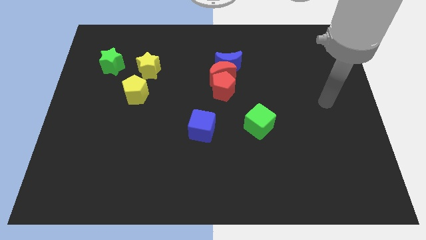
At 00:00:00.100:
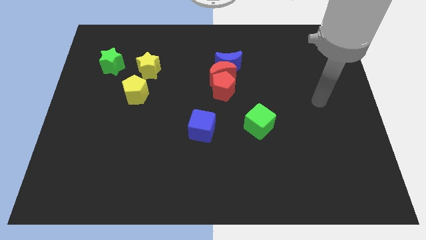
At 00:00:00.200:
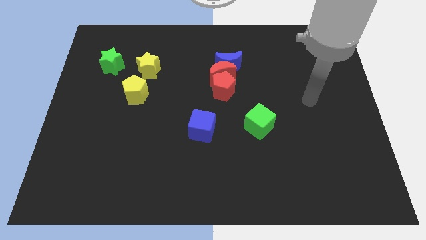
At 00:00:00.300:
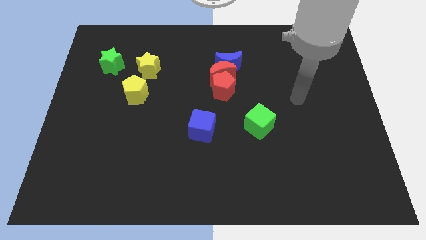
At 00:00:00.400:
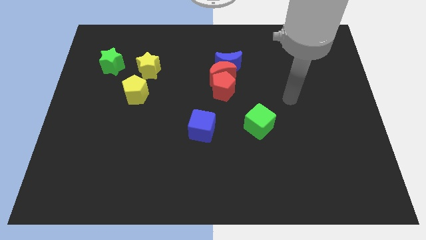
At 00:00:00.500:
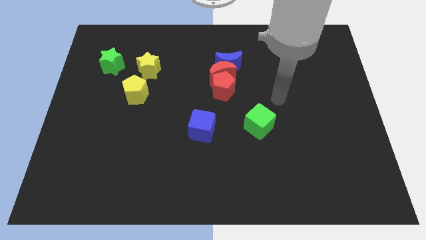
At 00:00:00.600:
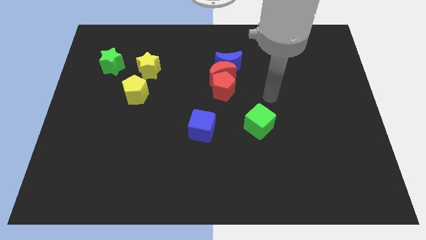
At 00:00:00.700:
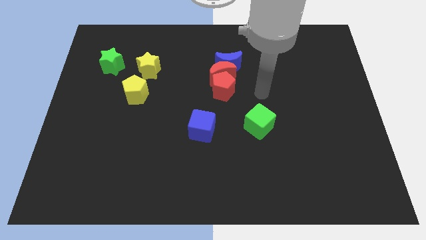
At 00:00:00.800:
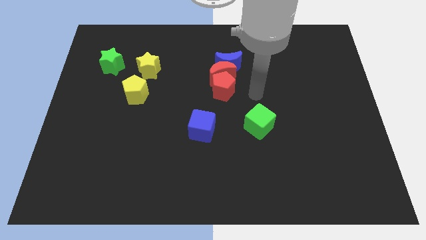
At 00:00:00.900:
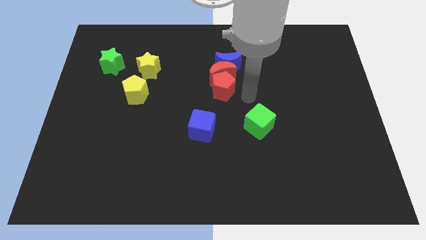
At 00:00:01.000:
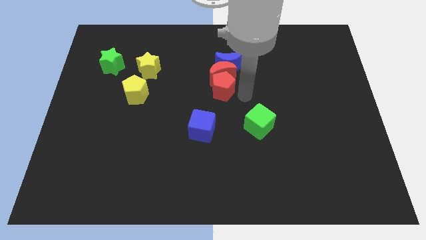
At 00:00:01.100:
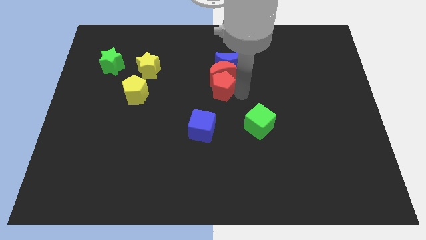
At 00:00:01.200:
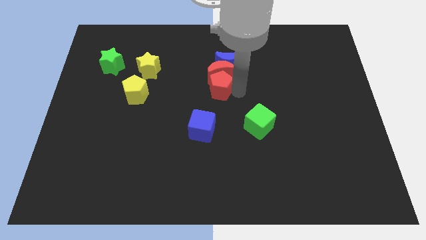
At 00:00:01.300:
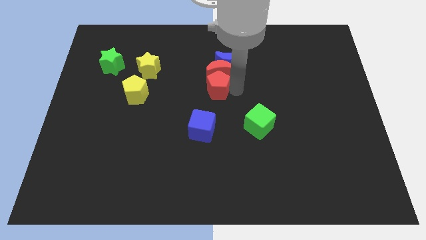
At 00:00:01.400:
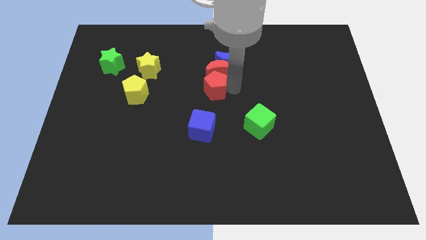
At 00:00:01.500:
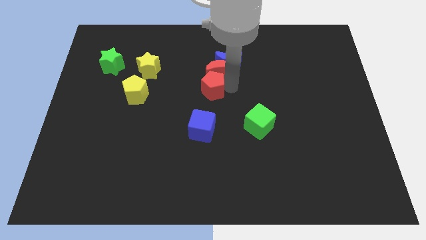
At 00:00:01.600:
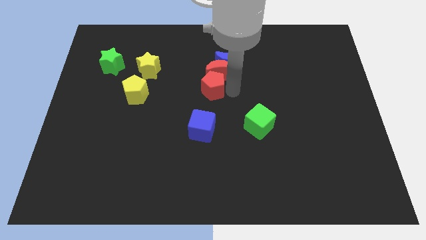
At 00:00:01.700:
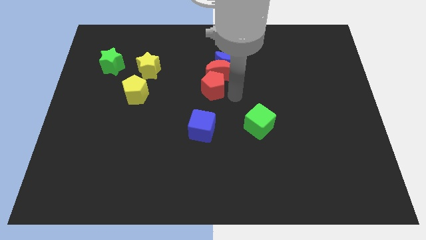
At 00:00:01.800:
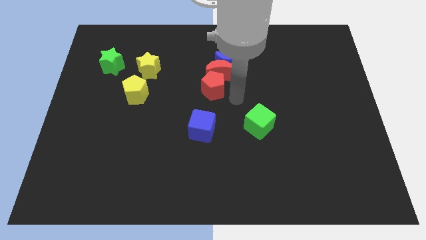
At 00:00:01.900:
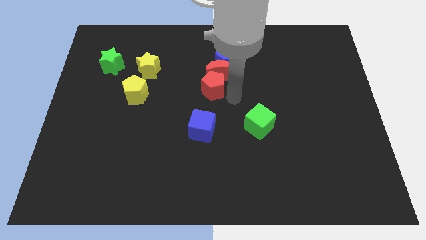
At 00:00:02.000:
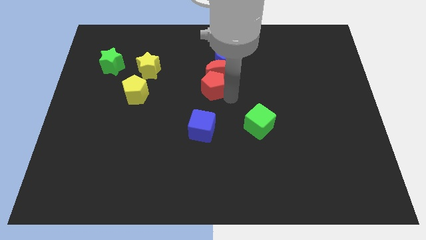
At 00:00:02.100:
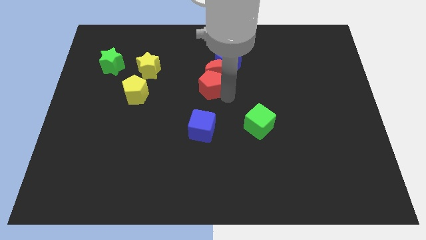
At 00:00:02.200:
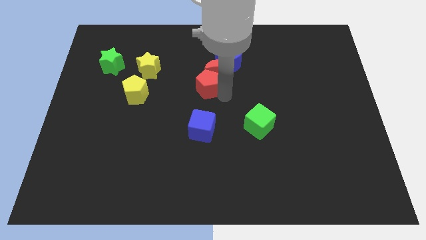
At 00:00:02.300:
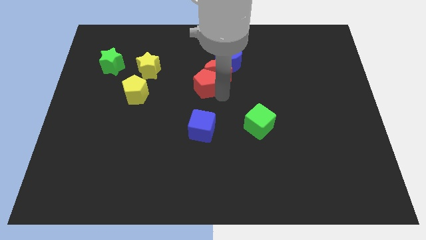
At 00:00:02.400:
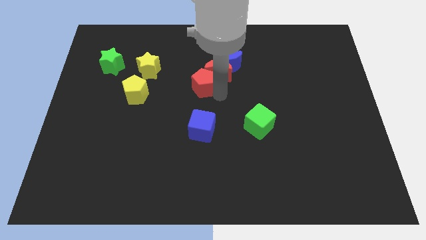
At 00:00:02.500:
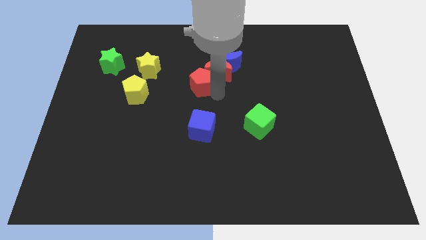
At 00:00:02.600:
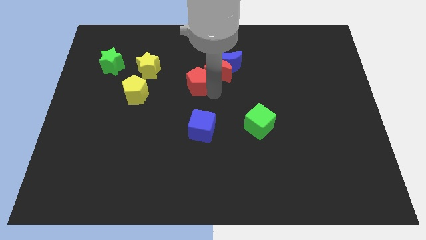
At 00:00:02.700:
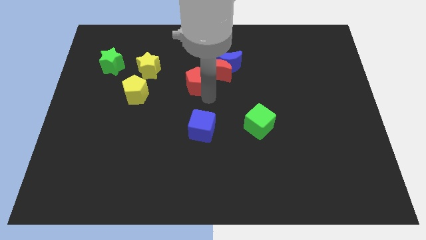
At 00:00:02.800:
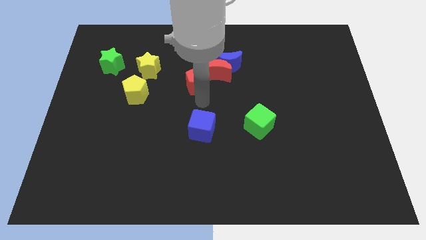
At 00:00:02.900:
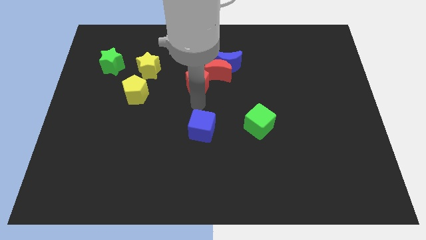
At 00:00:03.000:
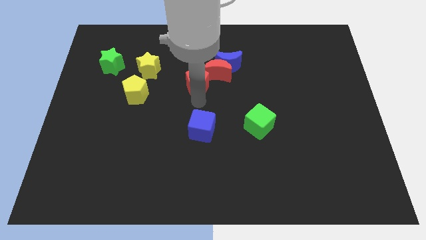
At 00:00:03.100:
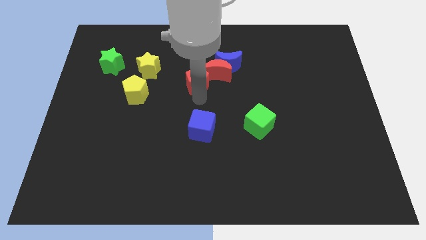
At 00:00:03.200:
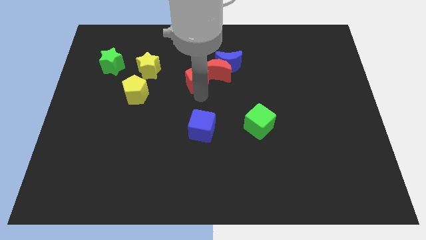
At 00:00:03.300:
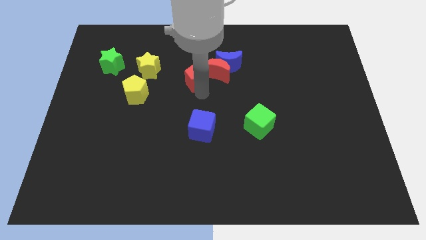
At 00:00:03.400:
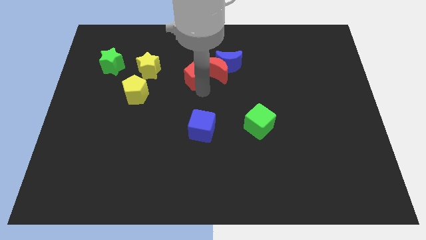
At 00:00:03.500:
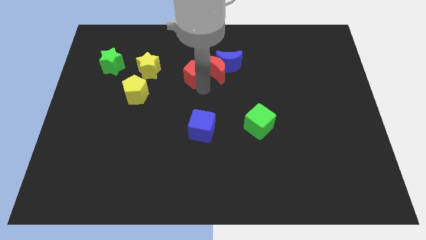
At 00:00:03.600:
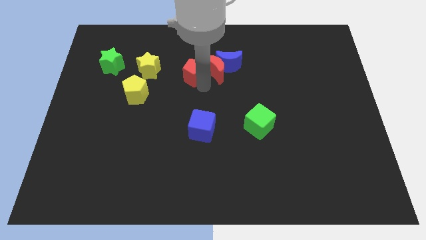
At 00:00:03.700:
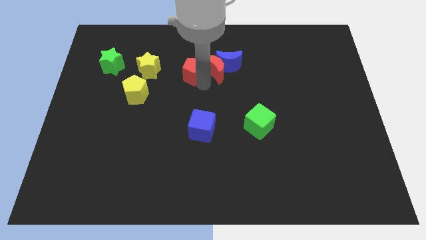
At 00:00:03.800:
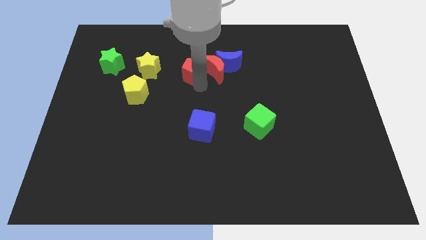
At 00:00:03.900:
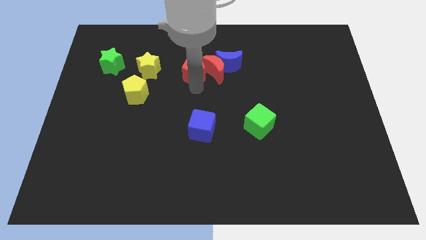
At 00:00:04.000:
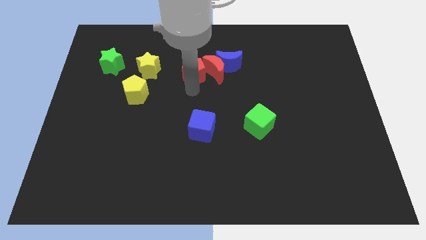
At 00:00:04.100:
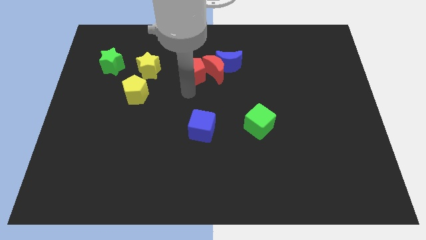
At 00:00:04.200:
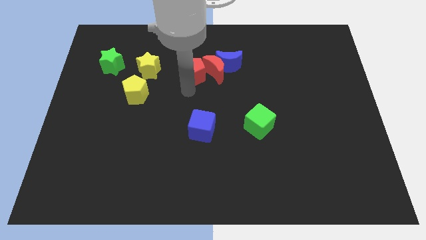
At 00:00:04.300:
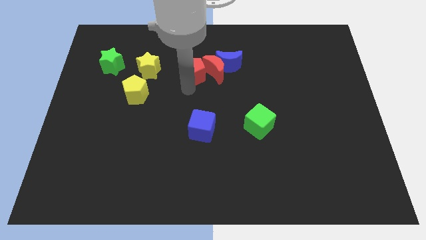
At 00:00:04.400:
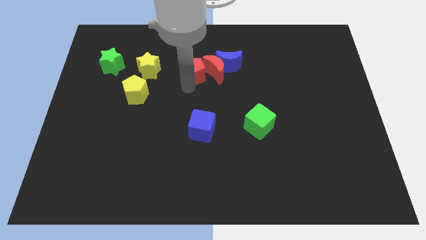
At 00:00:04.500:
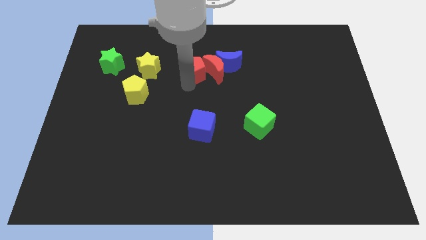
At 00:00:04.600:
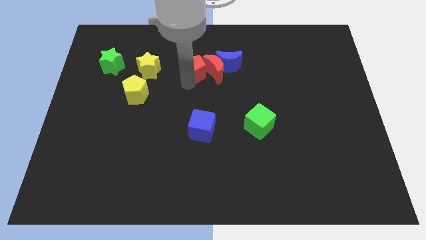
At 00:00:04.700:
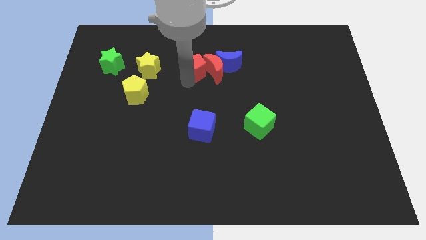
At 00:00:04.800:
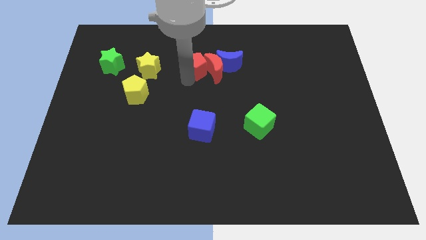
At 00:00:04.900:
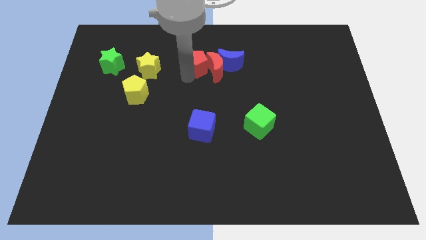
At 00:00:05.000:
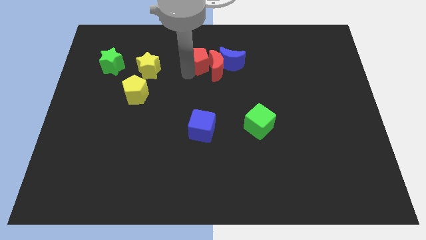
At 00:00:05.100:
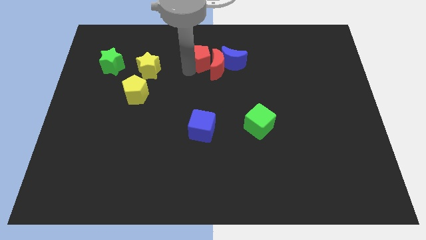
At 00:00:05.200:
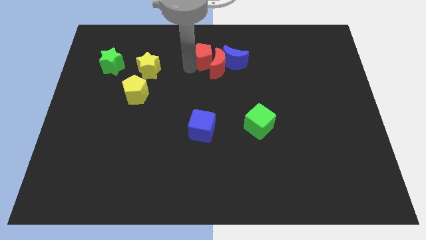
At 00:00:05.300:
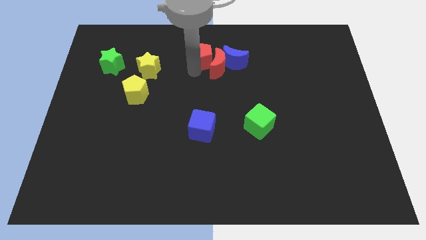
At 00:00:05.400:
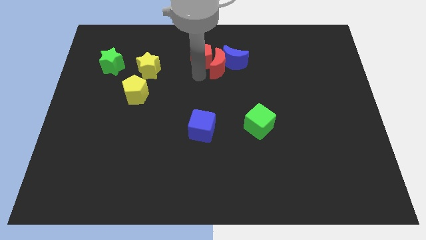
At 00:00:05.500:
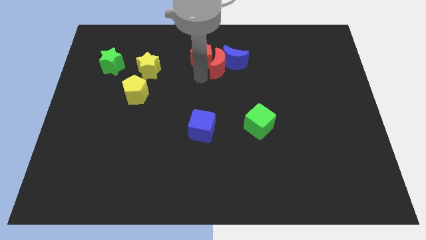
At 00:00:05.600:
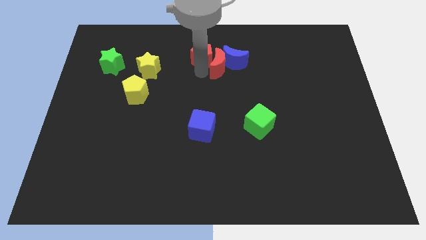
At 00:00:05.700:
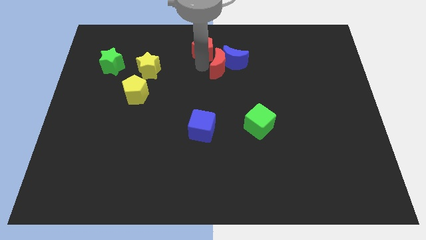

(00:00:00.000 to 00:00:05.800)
slide the red pentagon to the top

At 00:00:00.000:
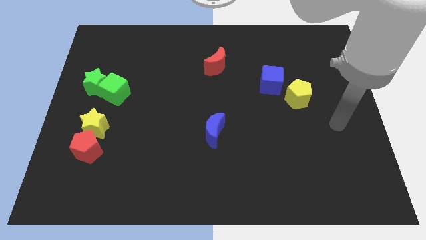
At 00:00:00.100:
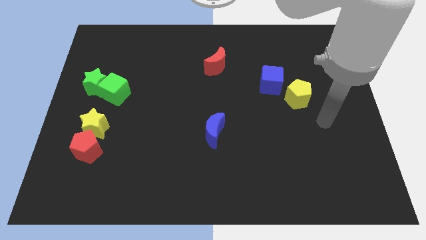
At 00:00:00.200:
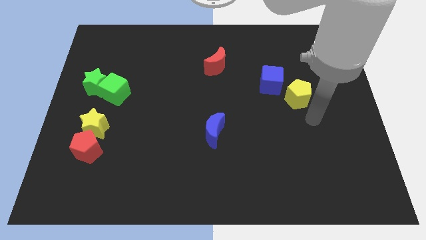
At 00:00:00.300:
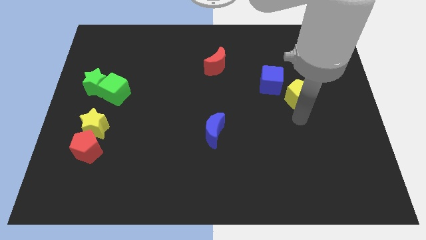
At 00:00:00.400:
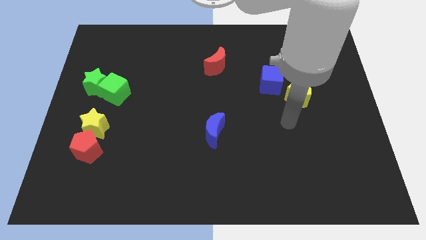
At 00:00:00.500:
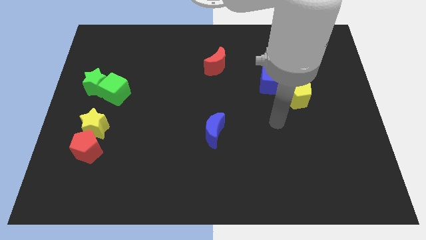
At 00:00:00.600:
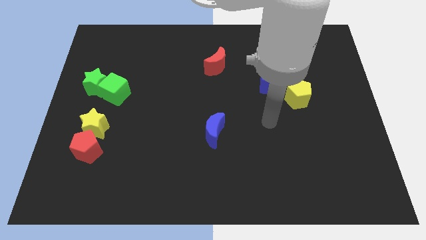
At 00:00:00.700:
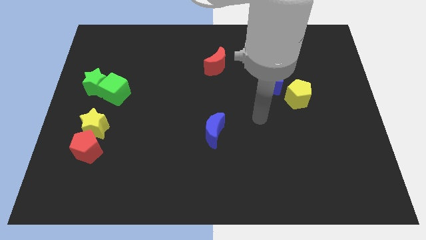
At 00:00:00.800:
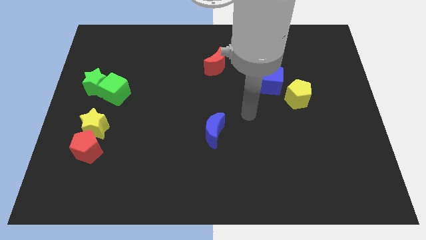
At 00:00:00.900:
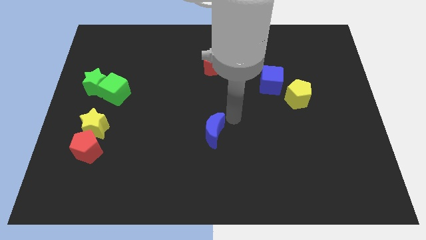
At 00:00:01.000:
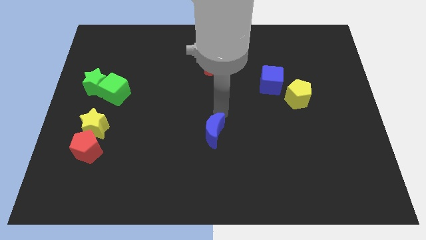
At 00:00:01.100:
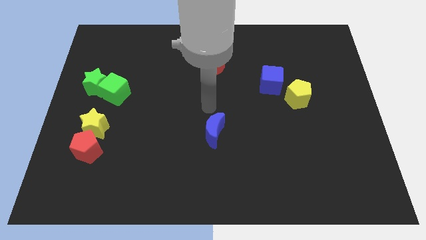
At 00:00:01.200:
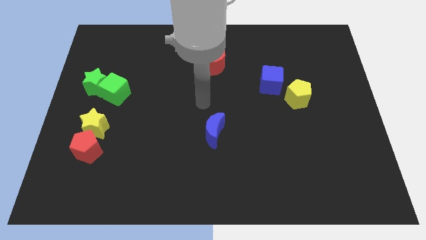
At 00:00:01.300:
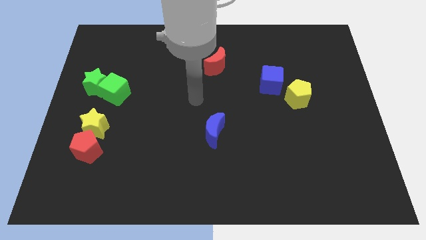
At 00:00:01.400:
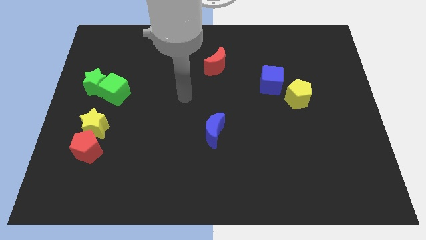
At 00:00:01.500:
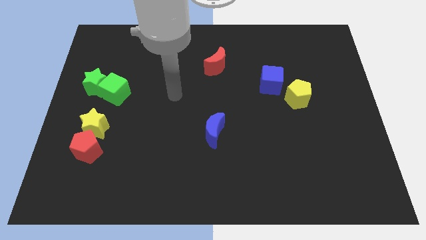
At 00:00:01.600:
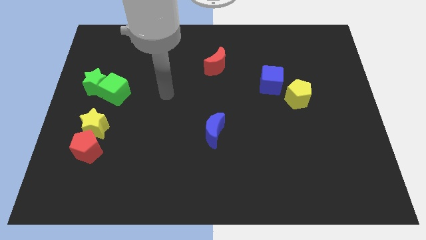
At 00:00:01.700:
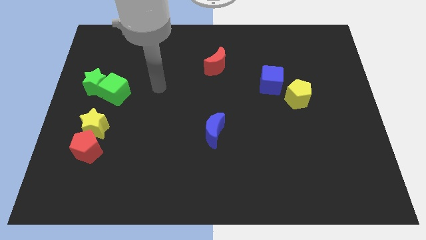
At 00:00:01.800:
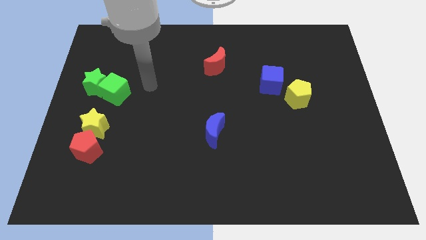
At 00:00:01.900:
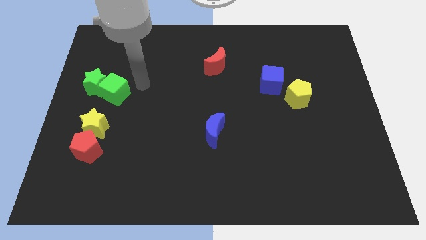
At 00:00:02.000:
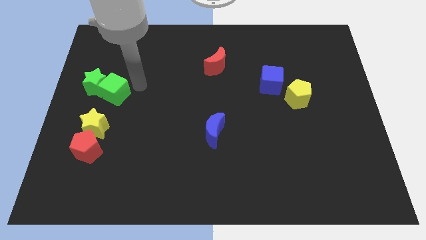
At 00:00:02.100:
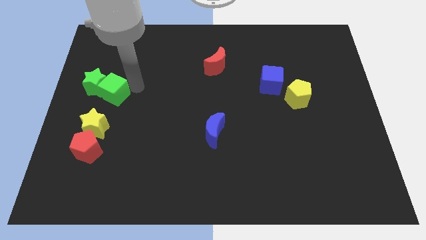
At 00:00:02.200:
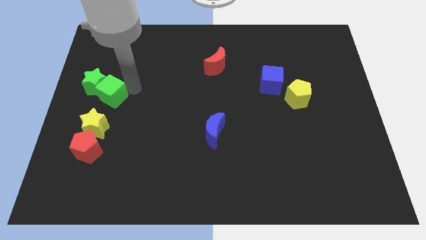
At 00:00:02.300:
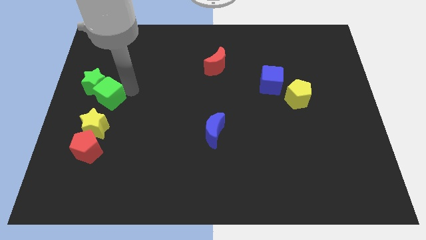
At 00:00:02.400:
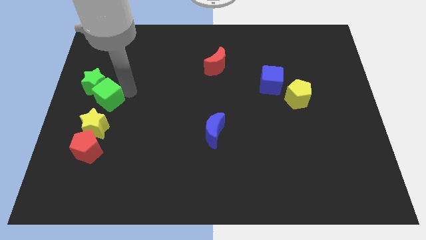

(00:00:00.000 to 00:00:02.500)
push the green cube to the center left
